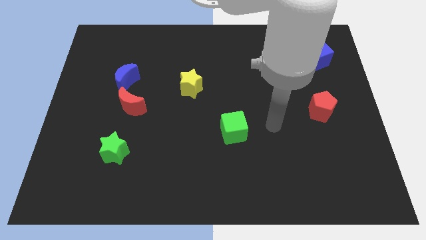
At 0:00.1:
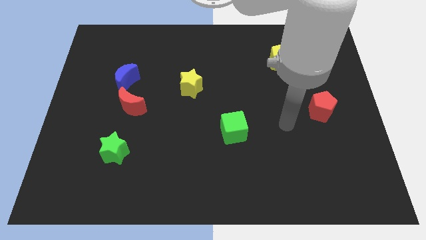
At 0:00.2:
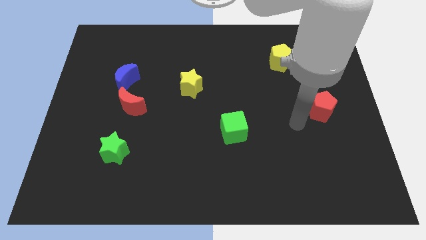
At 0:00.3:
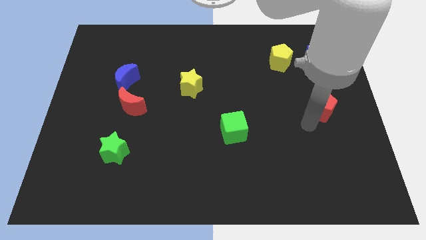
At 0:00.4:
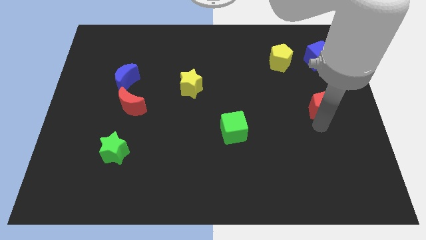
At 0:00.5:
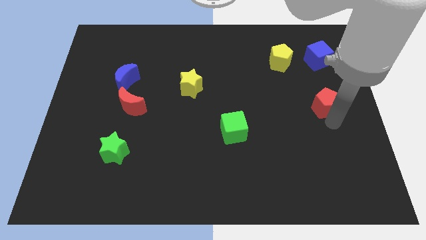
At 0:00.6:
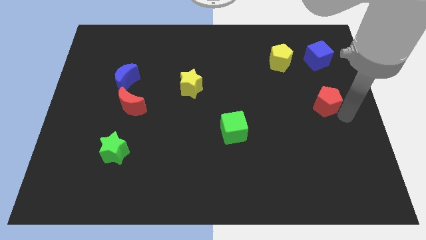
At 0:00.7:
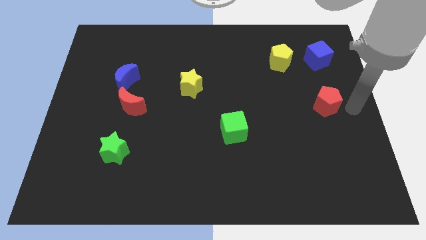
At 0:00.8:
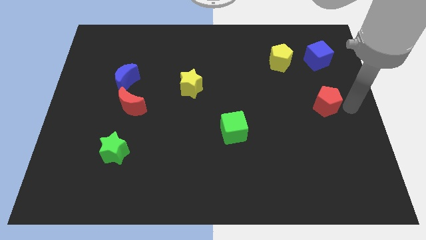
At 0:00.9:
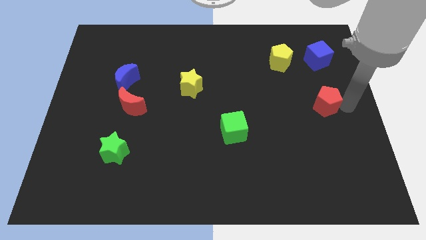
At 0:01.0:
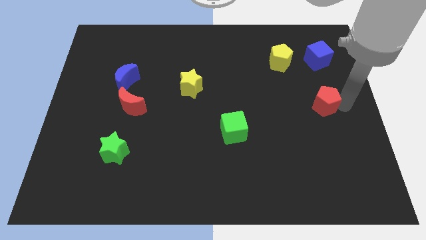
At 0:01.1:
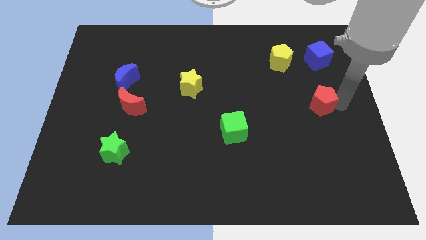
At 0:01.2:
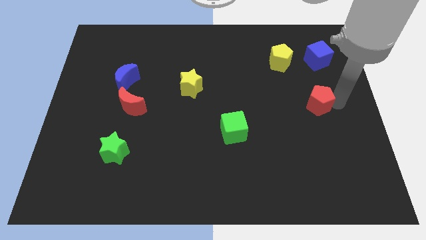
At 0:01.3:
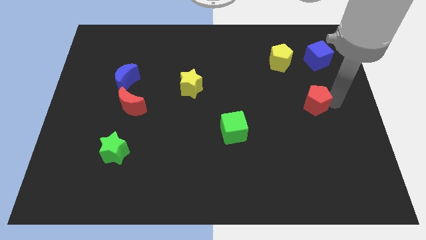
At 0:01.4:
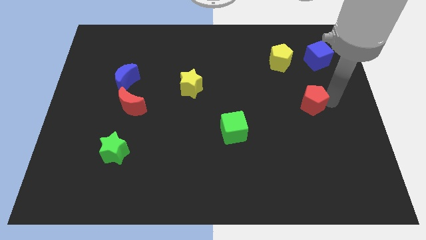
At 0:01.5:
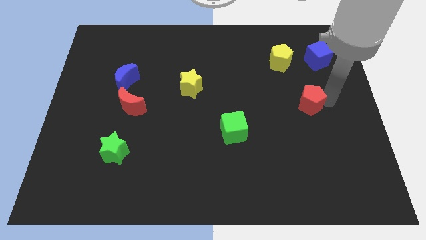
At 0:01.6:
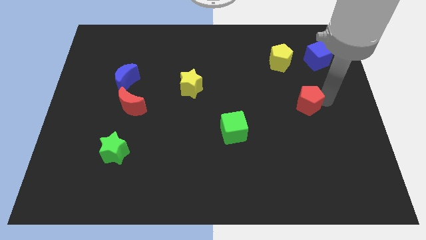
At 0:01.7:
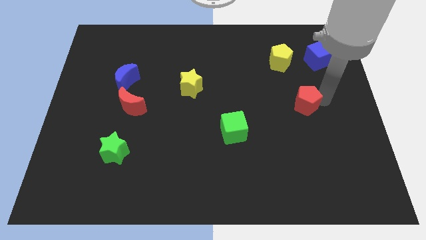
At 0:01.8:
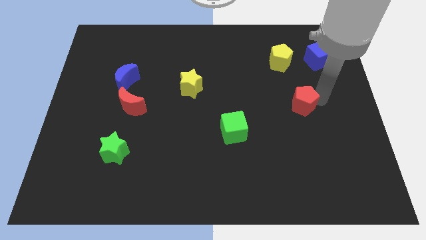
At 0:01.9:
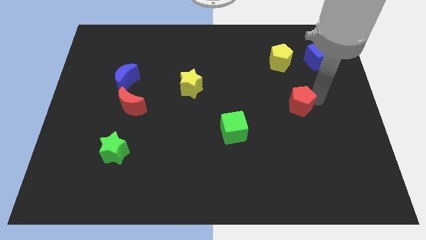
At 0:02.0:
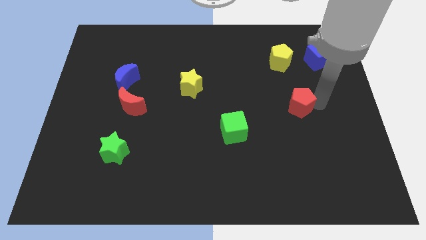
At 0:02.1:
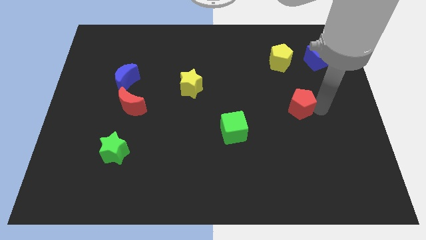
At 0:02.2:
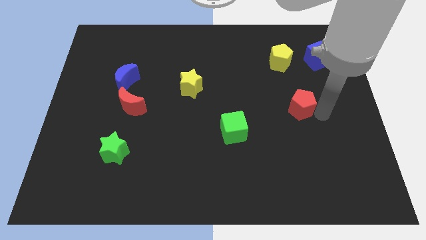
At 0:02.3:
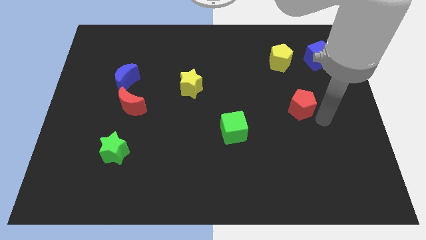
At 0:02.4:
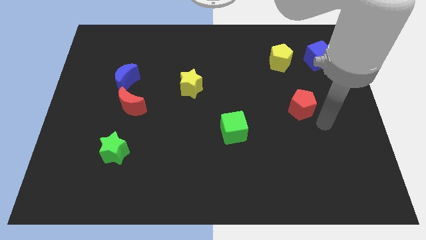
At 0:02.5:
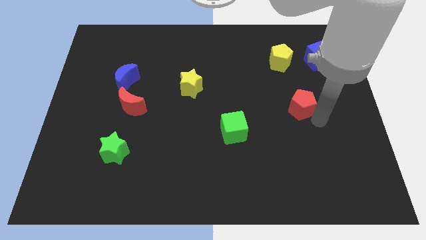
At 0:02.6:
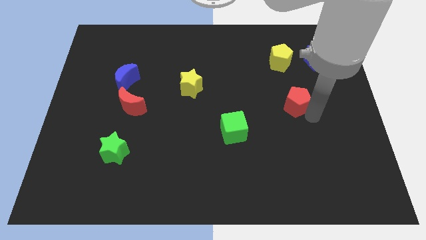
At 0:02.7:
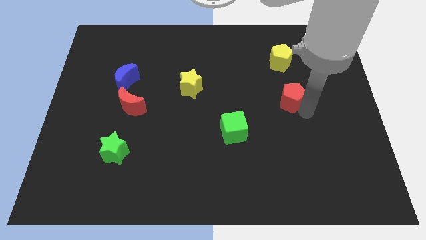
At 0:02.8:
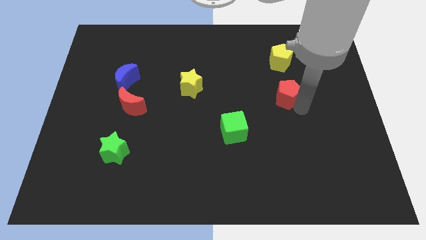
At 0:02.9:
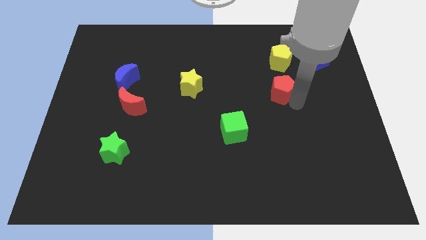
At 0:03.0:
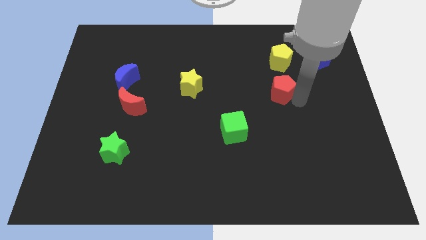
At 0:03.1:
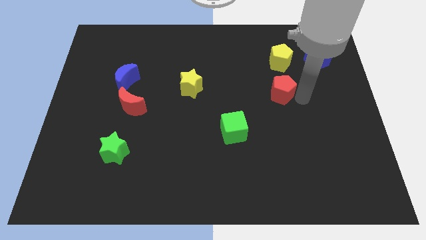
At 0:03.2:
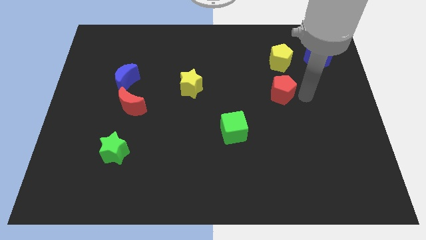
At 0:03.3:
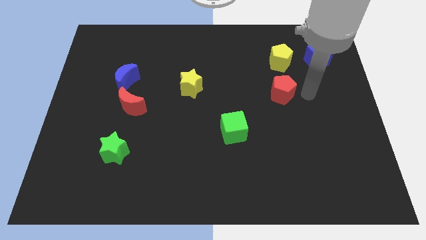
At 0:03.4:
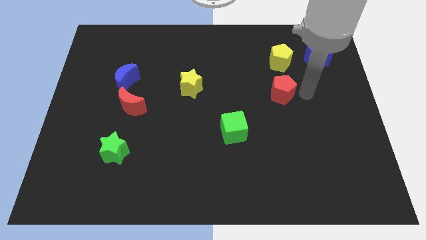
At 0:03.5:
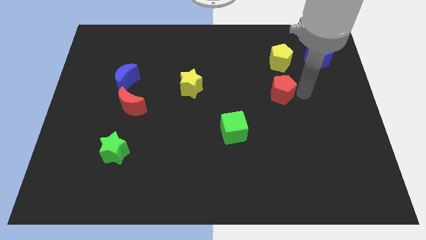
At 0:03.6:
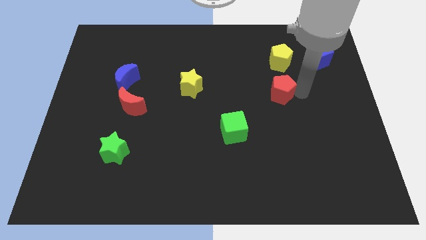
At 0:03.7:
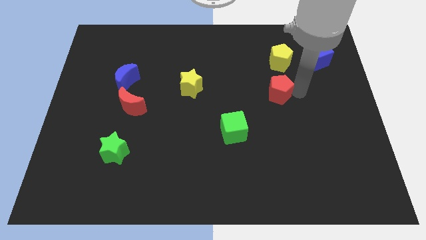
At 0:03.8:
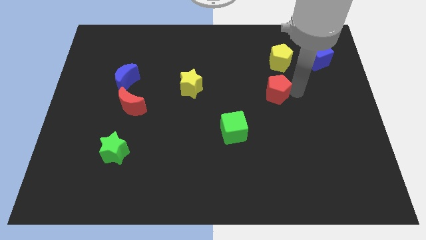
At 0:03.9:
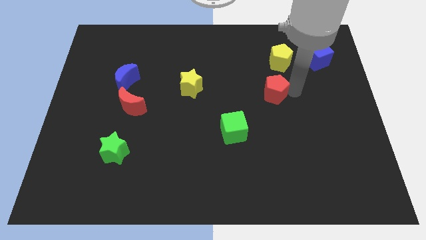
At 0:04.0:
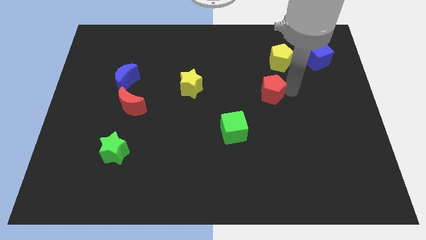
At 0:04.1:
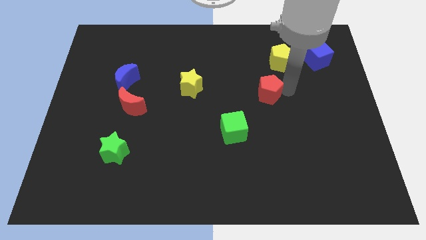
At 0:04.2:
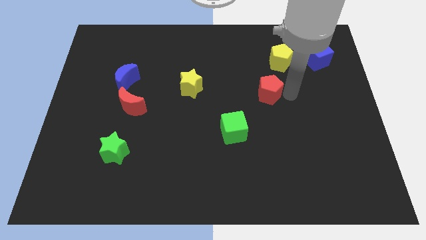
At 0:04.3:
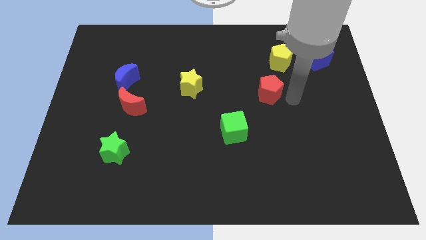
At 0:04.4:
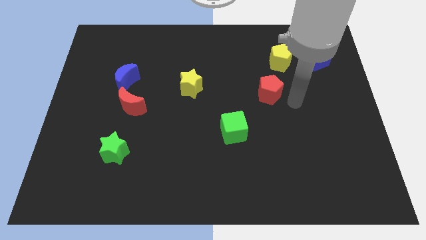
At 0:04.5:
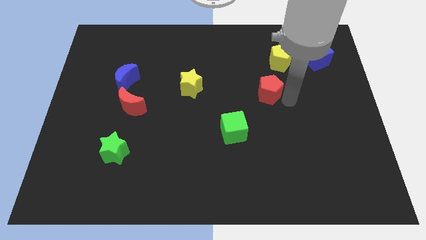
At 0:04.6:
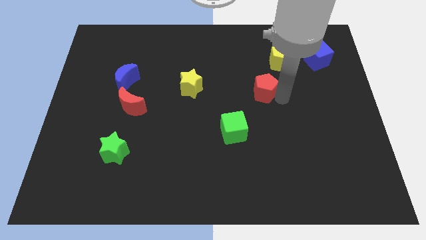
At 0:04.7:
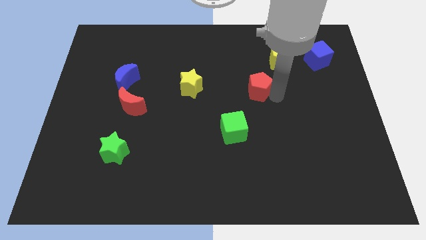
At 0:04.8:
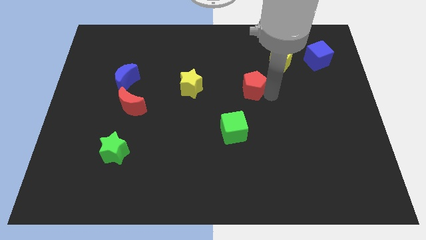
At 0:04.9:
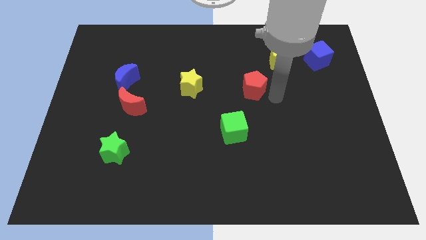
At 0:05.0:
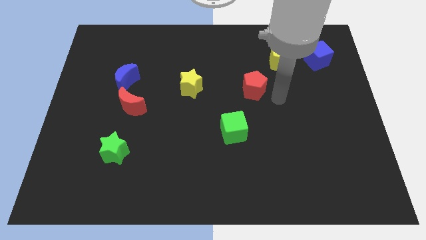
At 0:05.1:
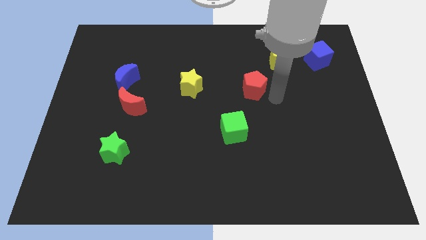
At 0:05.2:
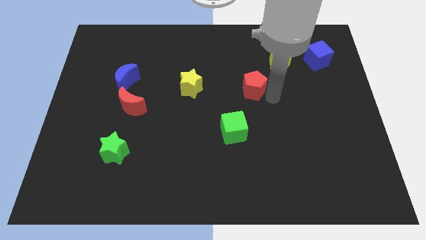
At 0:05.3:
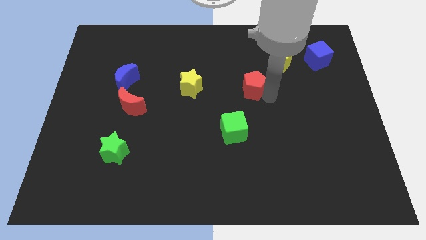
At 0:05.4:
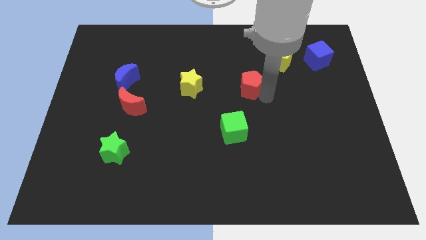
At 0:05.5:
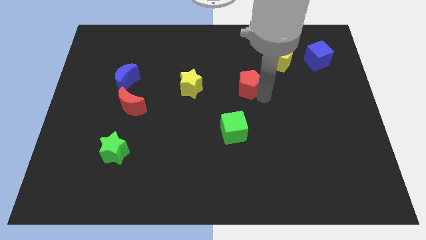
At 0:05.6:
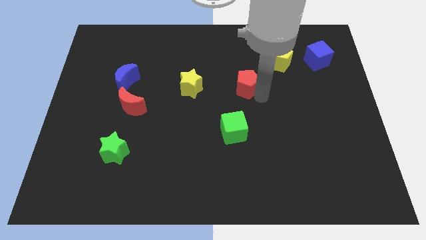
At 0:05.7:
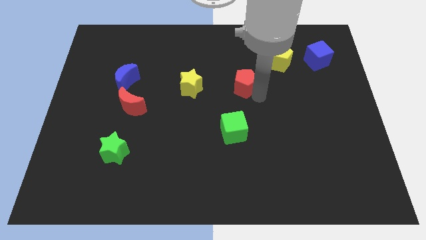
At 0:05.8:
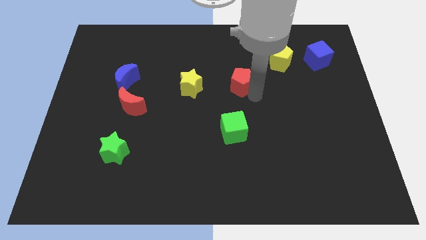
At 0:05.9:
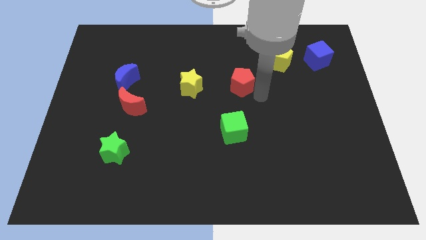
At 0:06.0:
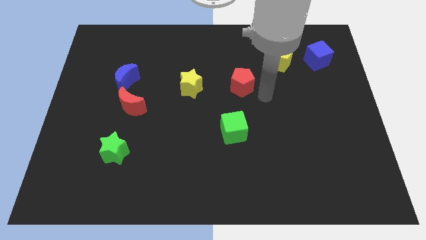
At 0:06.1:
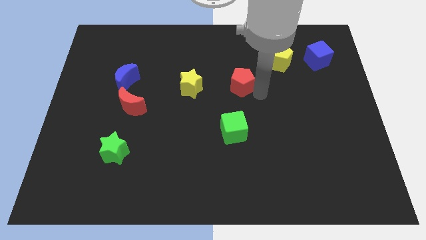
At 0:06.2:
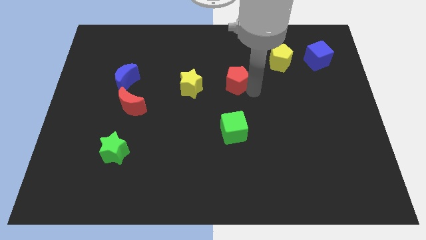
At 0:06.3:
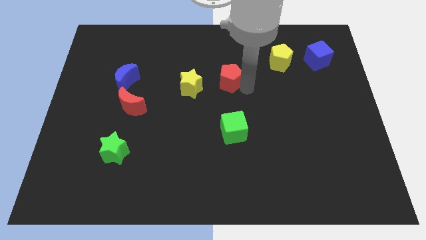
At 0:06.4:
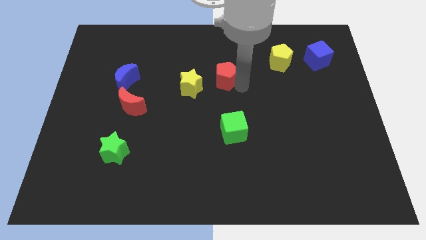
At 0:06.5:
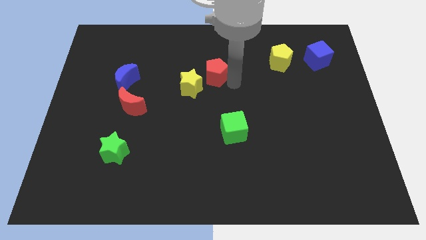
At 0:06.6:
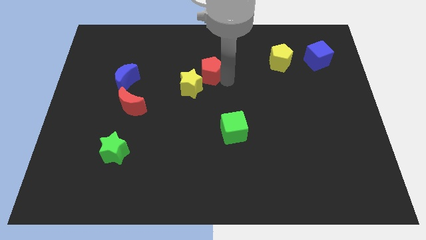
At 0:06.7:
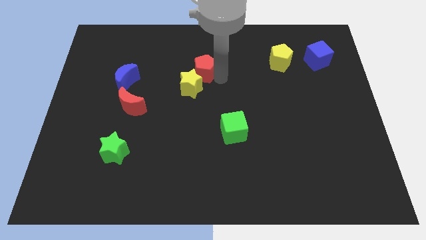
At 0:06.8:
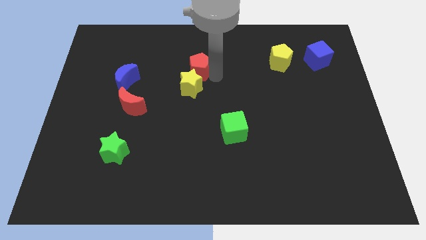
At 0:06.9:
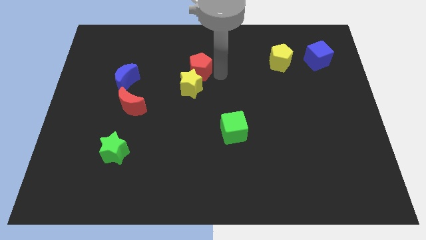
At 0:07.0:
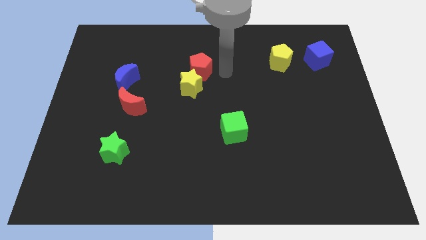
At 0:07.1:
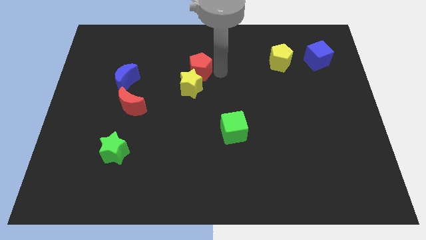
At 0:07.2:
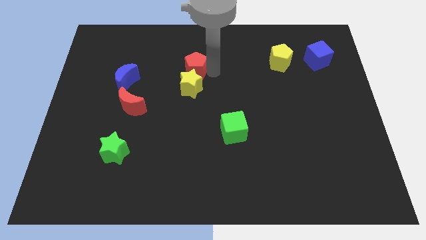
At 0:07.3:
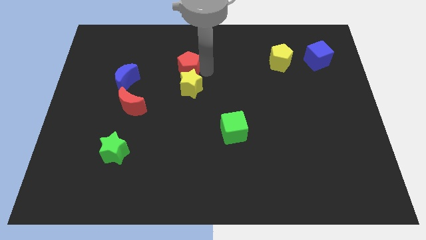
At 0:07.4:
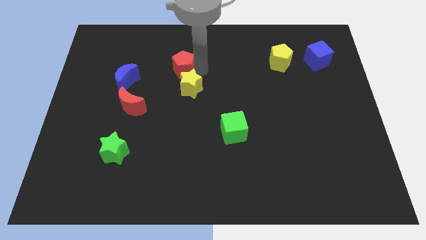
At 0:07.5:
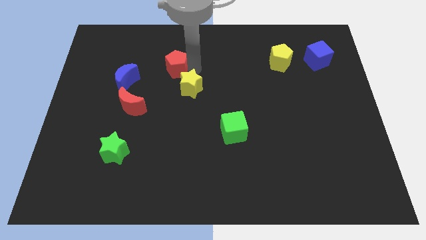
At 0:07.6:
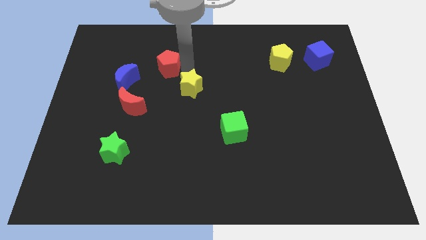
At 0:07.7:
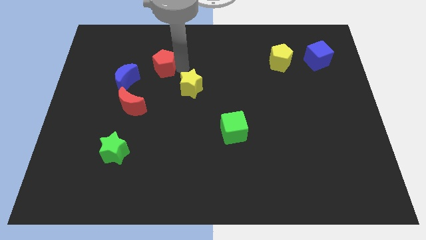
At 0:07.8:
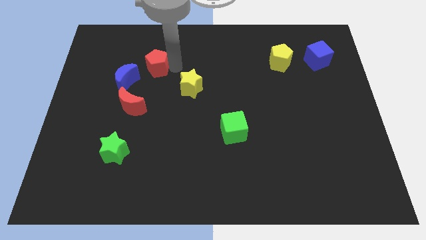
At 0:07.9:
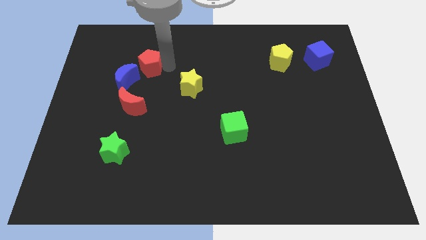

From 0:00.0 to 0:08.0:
move the red pentagon to the top side of the red moon
